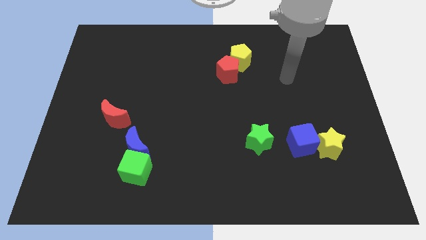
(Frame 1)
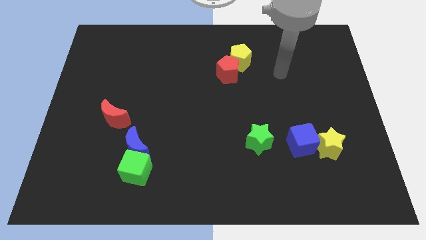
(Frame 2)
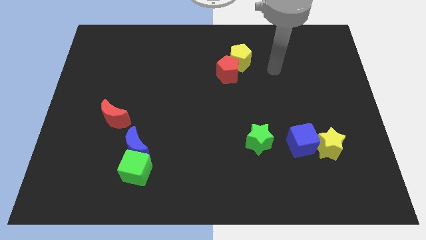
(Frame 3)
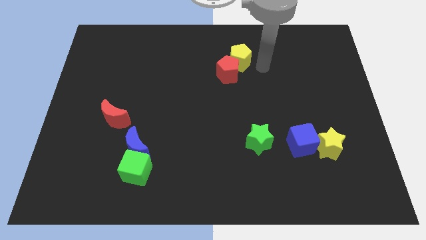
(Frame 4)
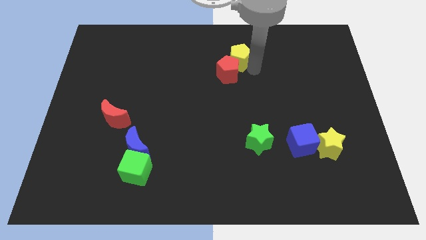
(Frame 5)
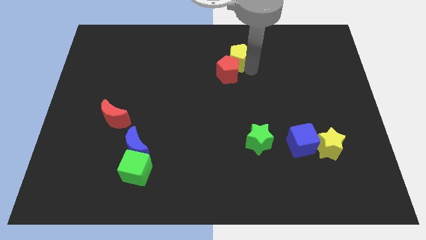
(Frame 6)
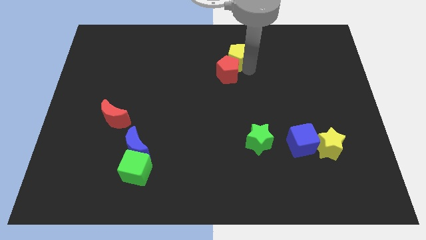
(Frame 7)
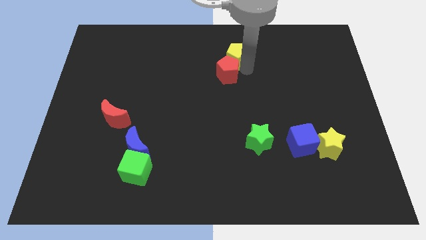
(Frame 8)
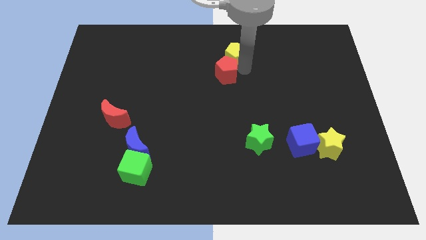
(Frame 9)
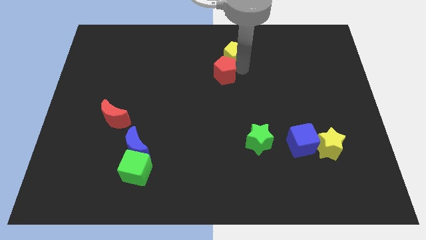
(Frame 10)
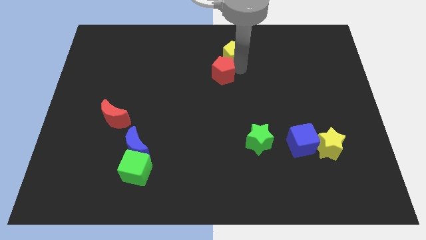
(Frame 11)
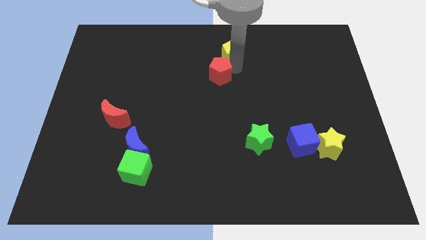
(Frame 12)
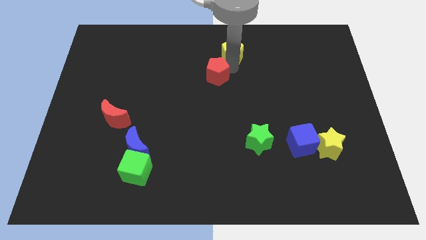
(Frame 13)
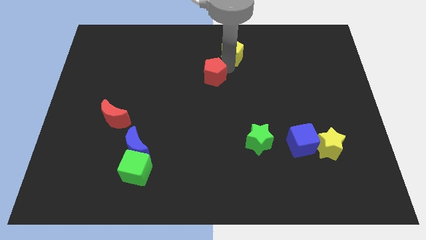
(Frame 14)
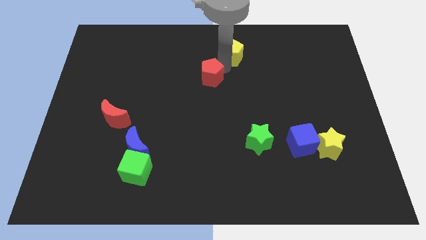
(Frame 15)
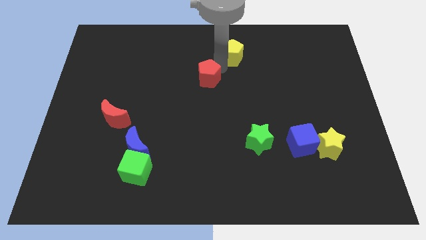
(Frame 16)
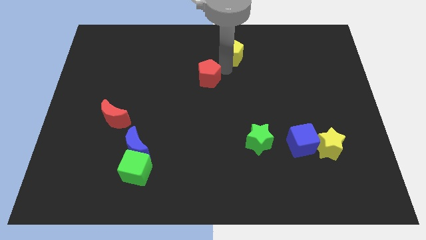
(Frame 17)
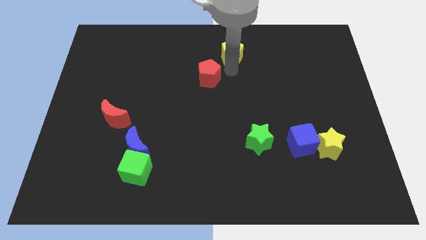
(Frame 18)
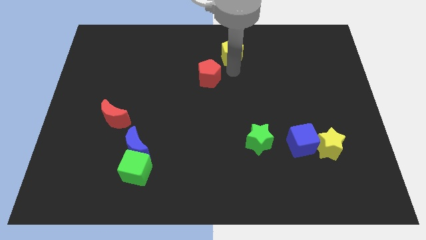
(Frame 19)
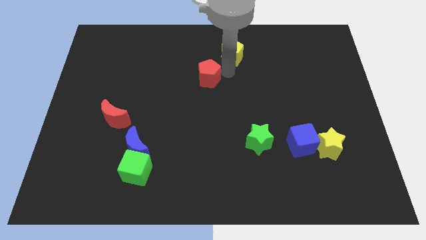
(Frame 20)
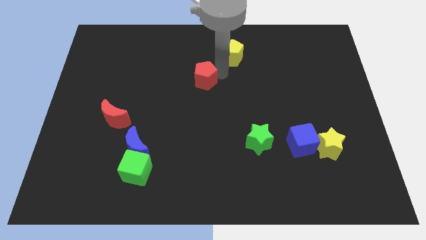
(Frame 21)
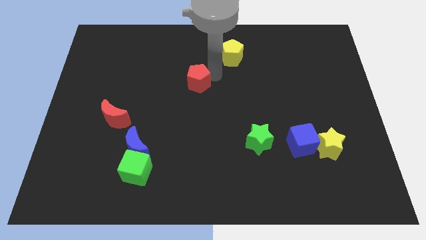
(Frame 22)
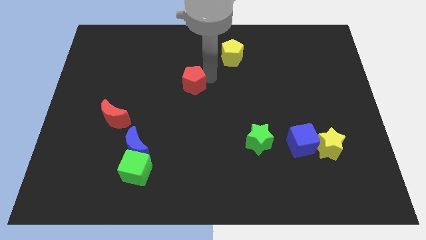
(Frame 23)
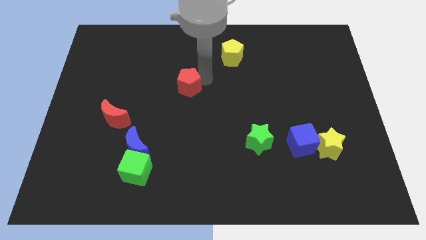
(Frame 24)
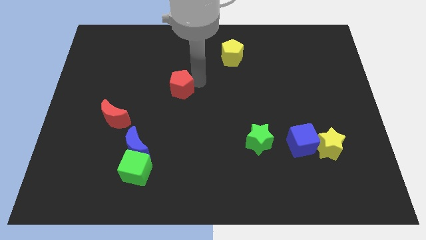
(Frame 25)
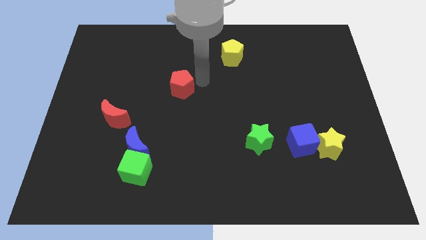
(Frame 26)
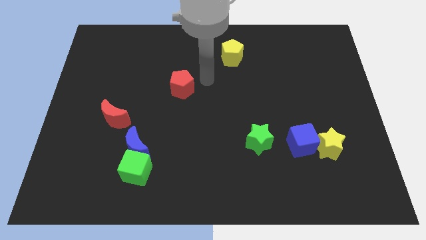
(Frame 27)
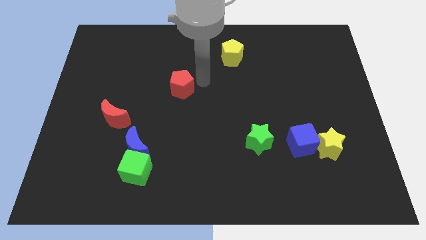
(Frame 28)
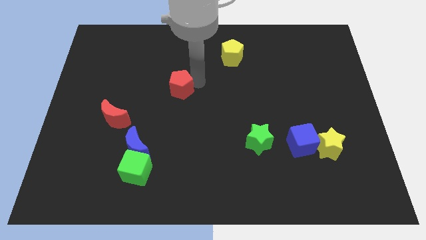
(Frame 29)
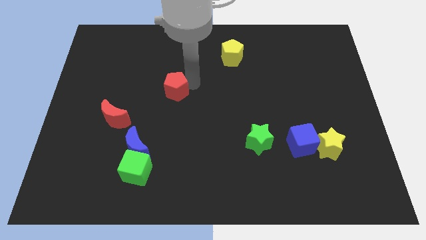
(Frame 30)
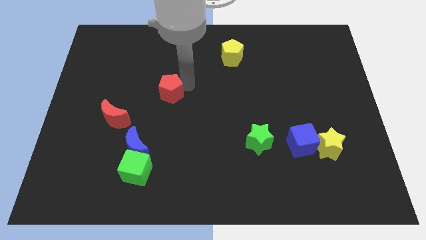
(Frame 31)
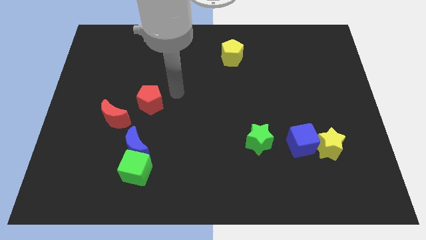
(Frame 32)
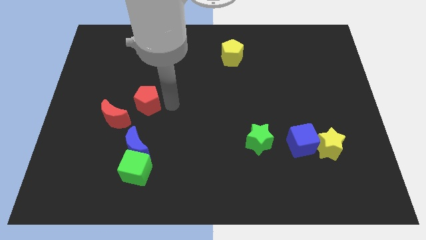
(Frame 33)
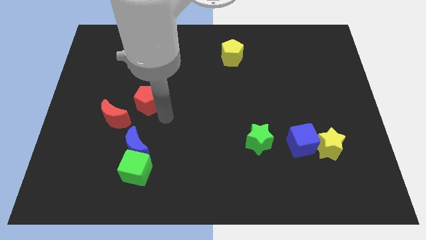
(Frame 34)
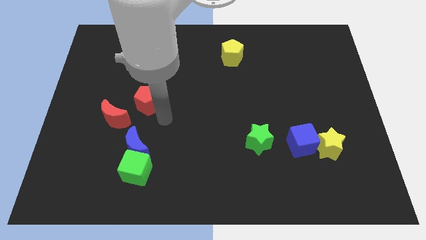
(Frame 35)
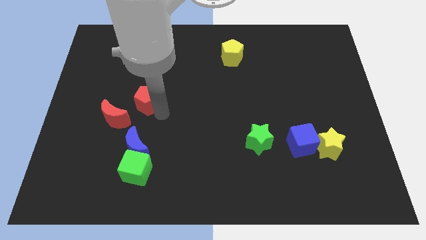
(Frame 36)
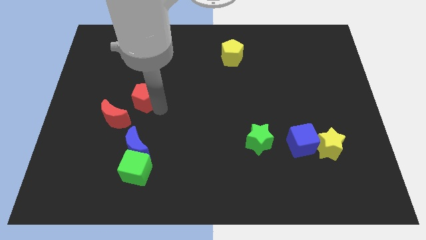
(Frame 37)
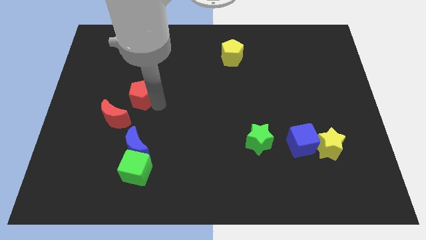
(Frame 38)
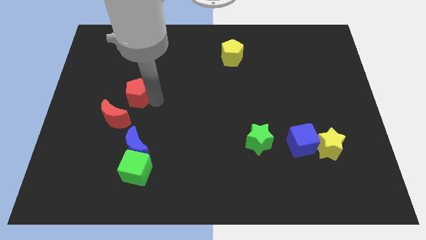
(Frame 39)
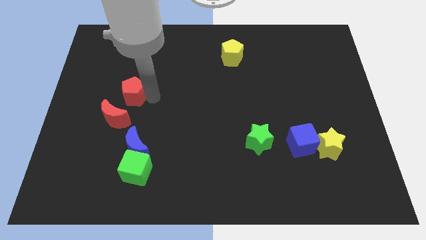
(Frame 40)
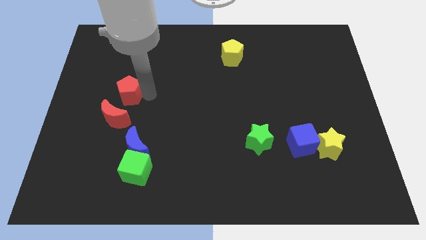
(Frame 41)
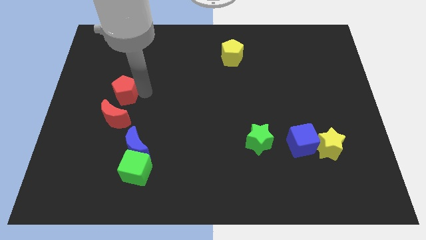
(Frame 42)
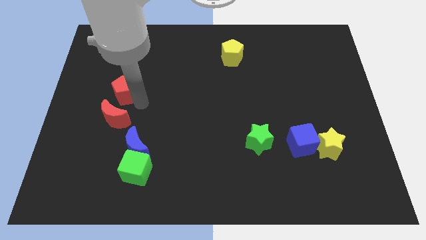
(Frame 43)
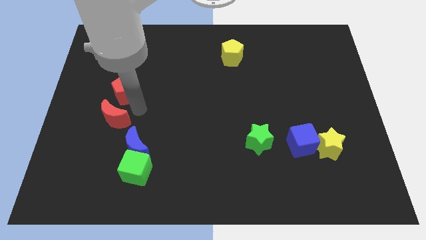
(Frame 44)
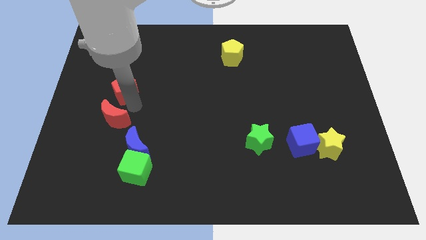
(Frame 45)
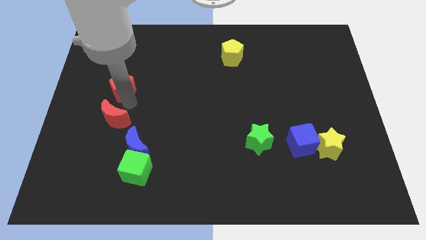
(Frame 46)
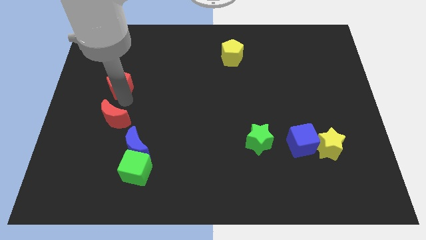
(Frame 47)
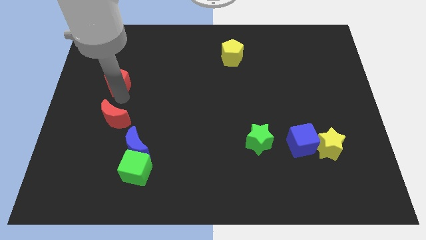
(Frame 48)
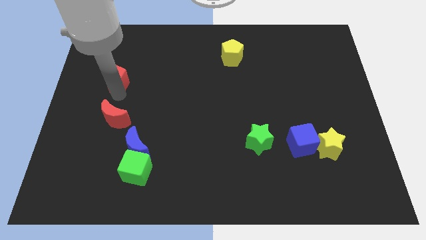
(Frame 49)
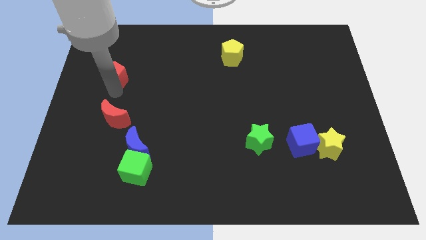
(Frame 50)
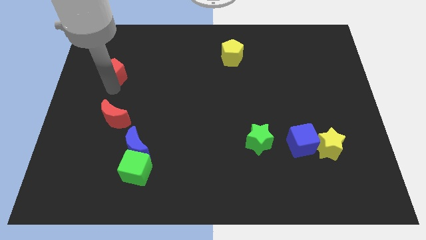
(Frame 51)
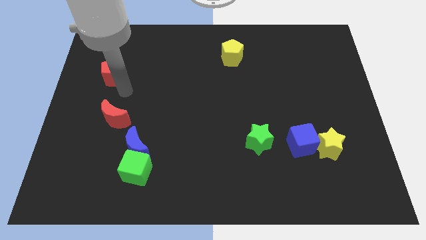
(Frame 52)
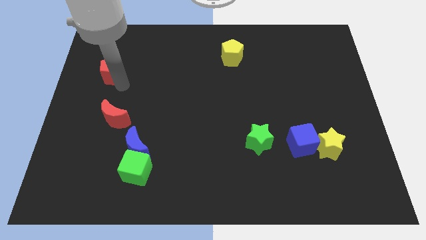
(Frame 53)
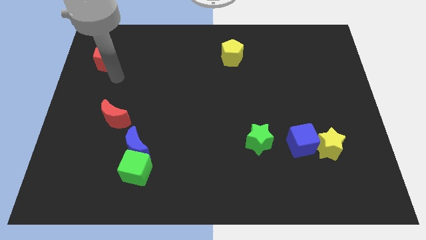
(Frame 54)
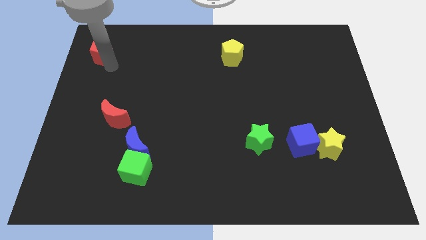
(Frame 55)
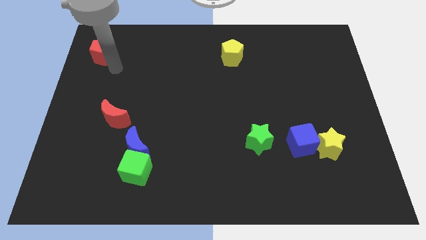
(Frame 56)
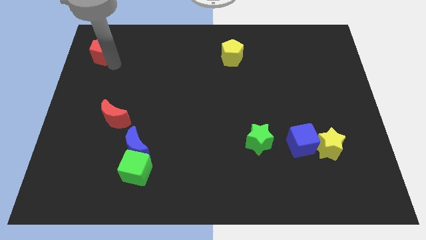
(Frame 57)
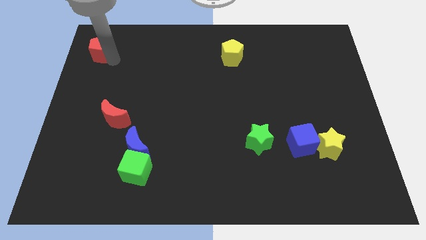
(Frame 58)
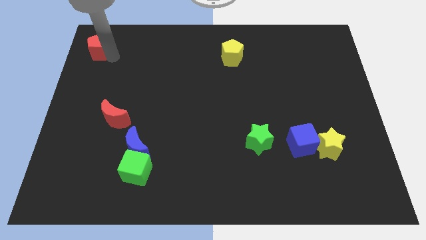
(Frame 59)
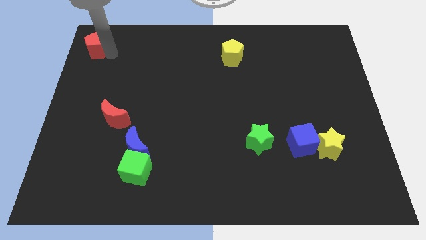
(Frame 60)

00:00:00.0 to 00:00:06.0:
move the red pentagon to the top left corner

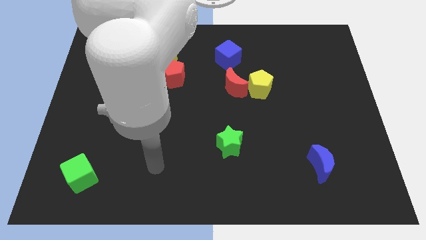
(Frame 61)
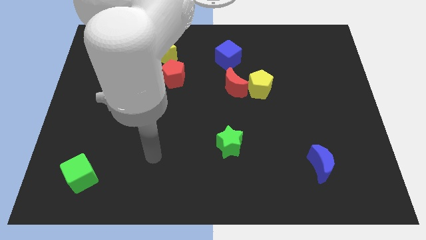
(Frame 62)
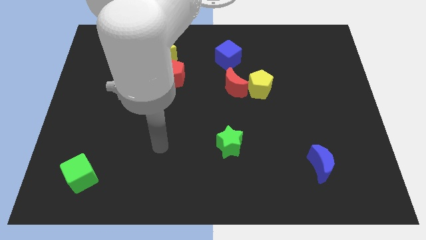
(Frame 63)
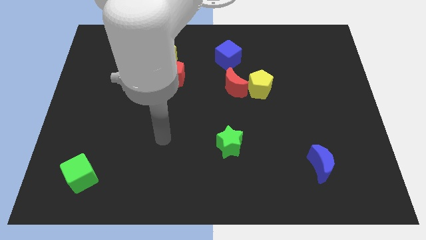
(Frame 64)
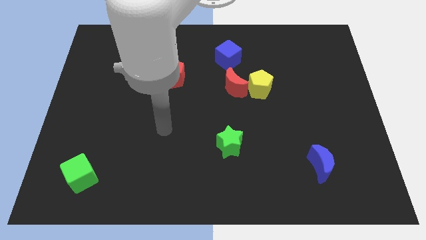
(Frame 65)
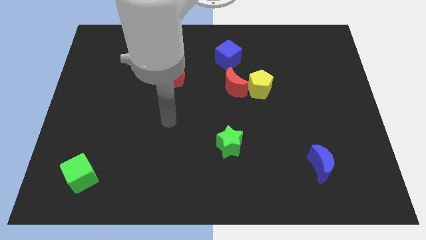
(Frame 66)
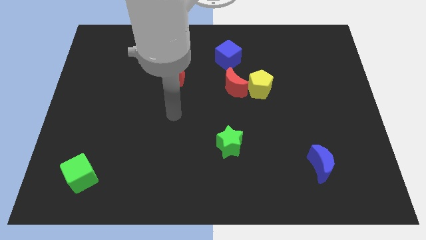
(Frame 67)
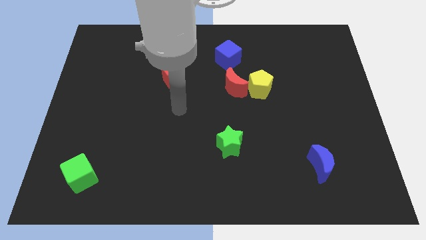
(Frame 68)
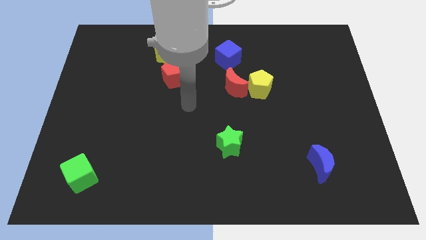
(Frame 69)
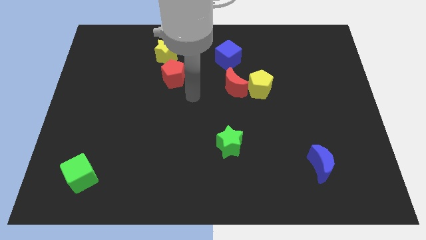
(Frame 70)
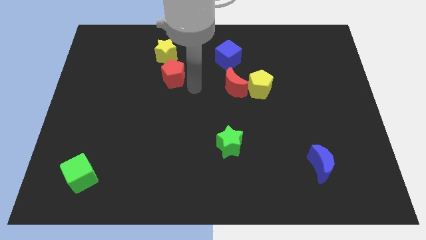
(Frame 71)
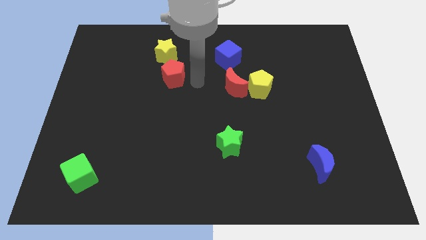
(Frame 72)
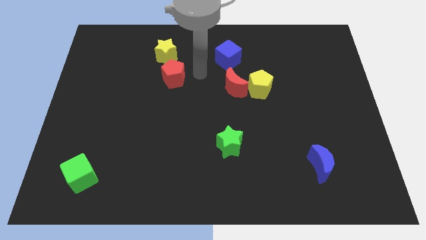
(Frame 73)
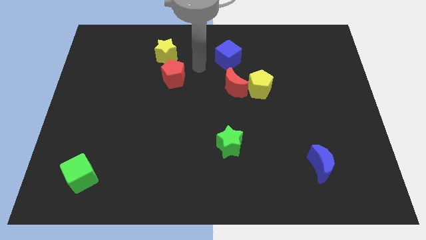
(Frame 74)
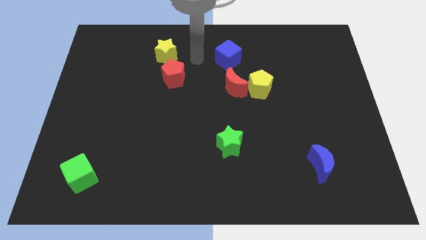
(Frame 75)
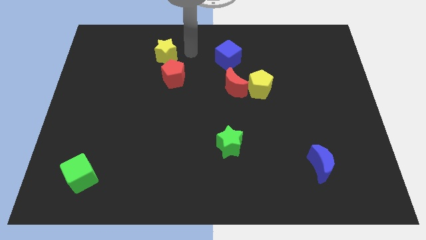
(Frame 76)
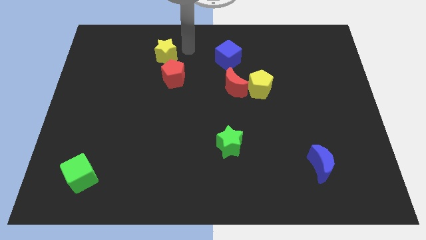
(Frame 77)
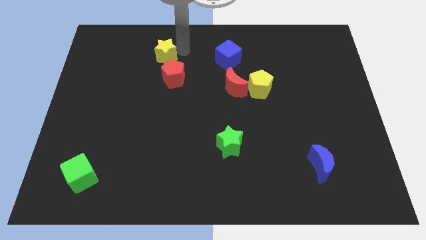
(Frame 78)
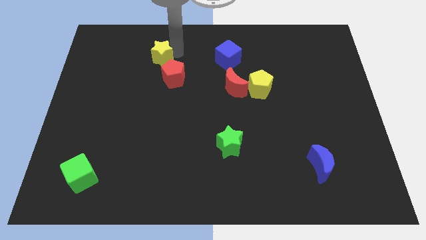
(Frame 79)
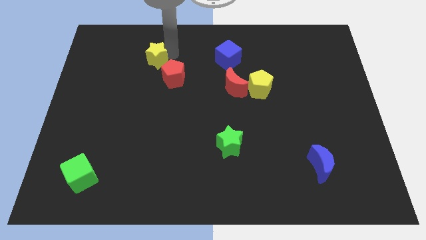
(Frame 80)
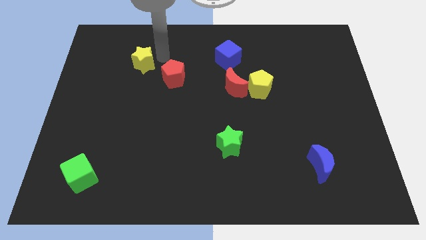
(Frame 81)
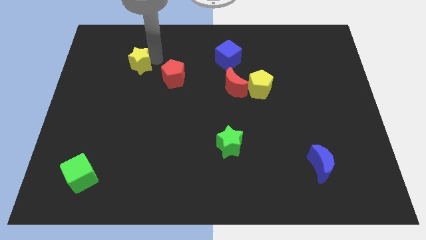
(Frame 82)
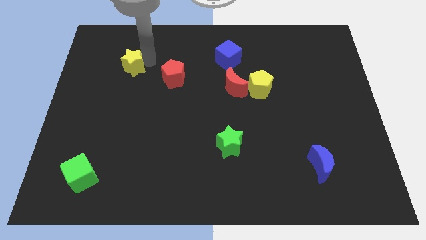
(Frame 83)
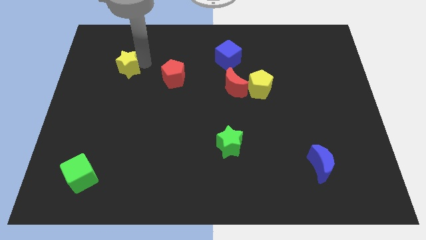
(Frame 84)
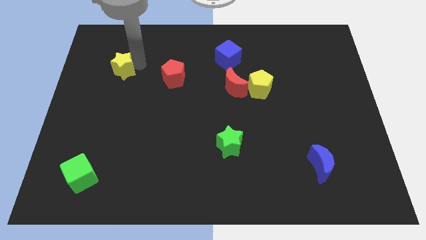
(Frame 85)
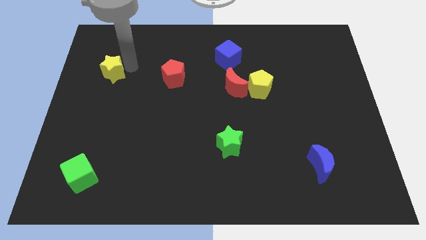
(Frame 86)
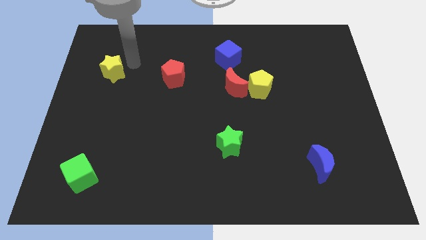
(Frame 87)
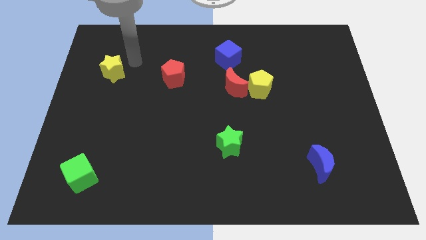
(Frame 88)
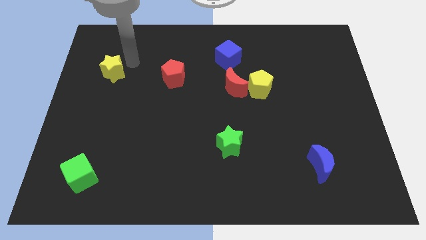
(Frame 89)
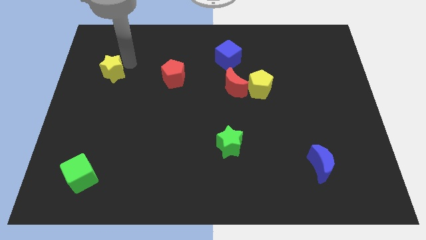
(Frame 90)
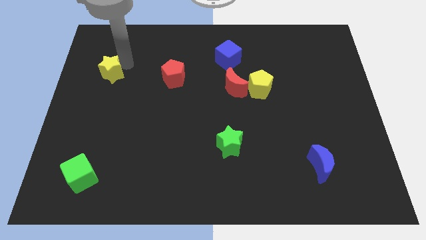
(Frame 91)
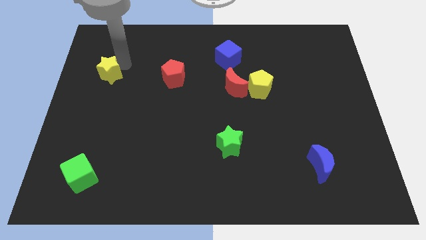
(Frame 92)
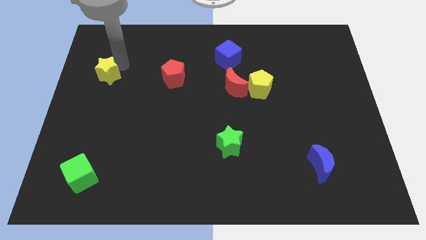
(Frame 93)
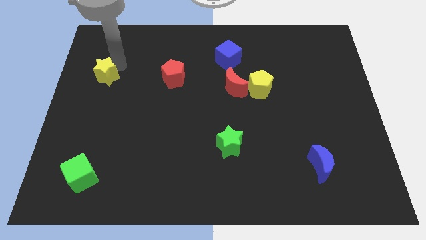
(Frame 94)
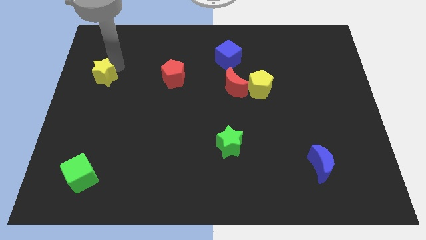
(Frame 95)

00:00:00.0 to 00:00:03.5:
move the yellow star to the left side
